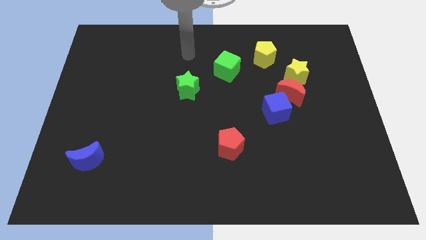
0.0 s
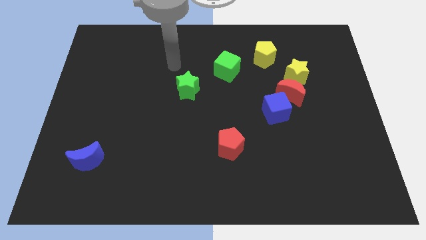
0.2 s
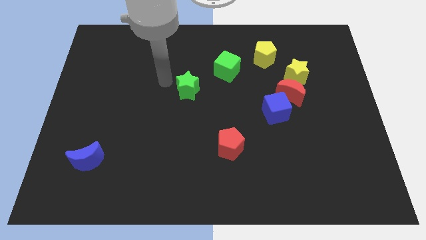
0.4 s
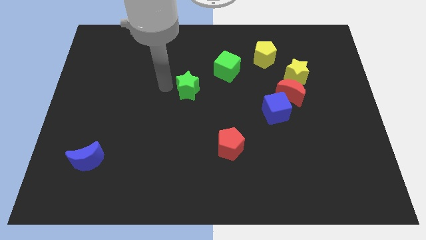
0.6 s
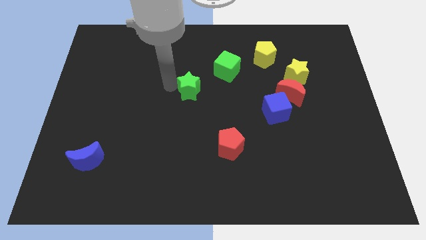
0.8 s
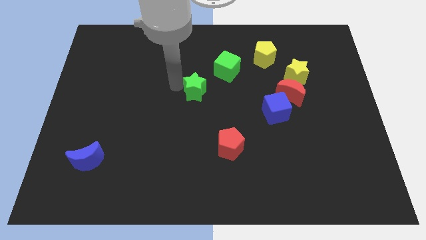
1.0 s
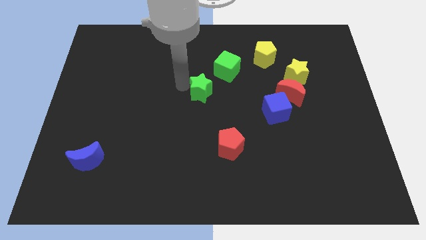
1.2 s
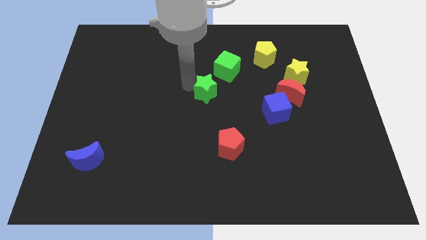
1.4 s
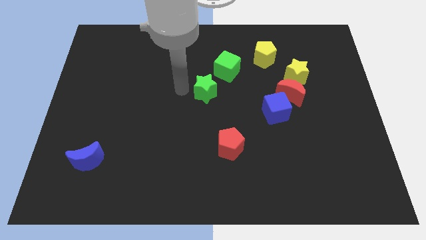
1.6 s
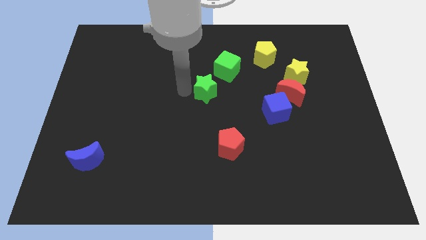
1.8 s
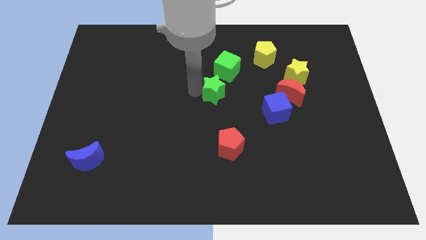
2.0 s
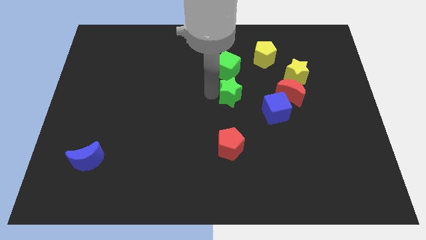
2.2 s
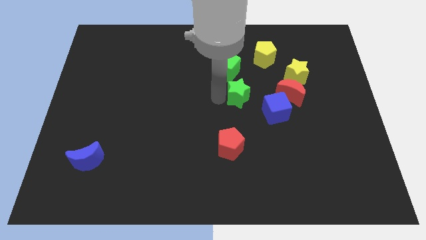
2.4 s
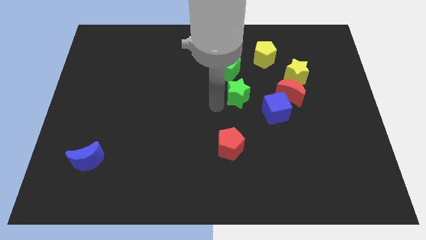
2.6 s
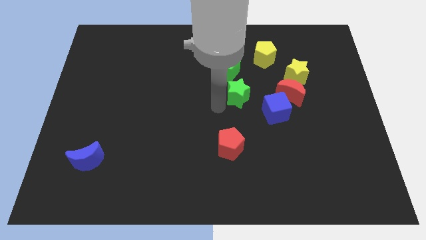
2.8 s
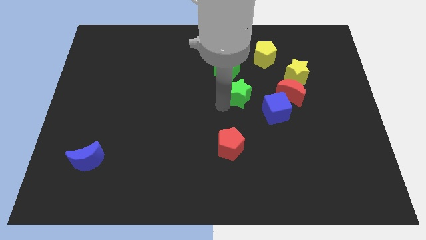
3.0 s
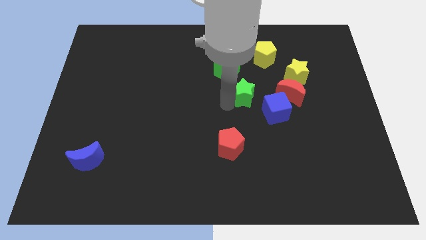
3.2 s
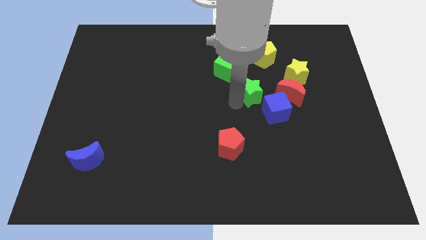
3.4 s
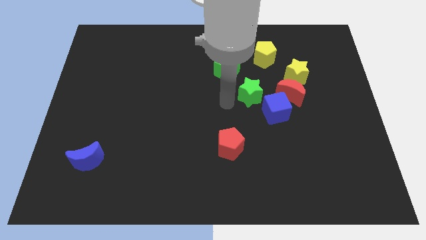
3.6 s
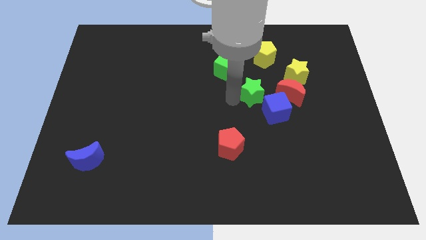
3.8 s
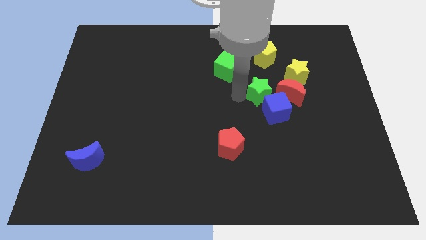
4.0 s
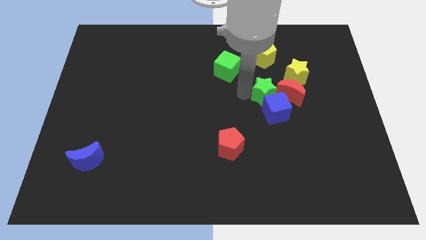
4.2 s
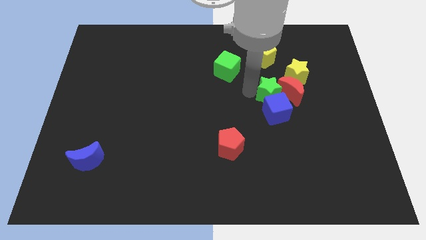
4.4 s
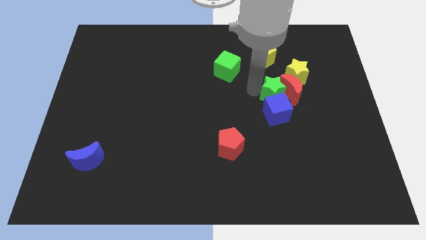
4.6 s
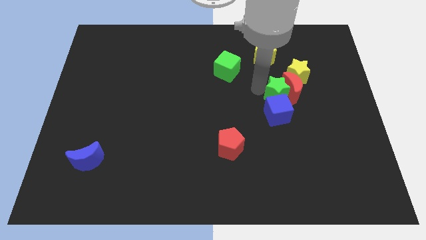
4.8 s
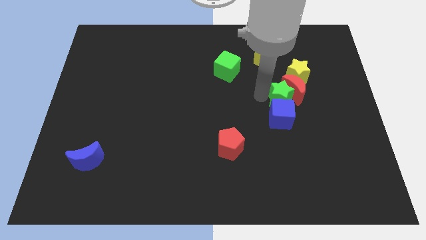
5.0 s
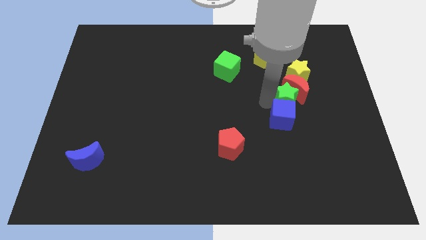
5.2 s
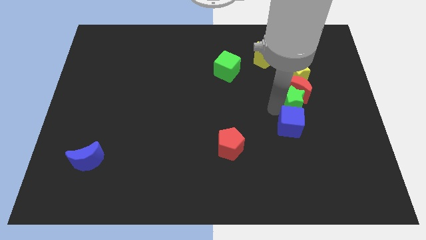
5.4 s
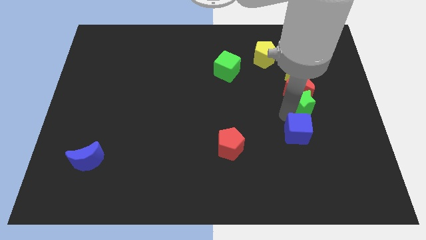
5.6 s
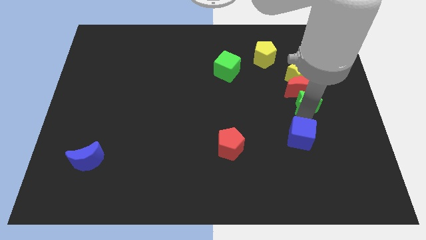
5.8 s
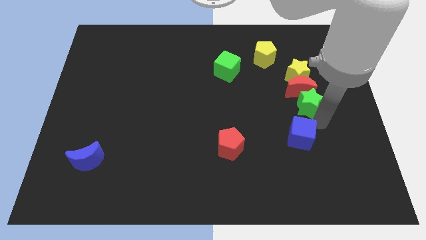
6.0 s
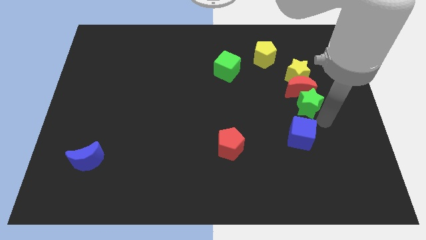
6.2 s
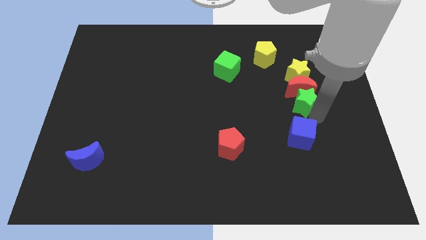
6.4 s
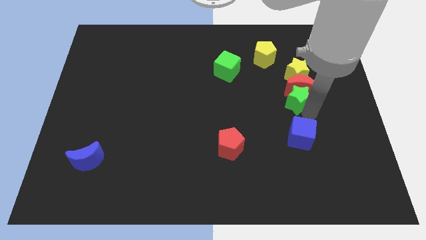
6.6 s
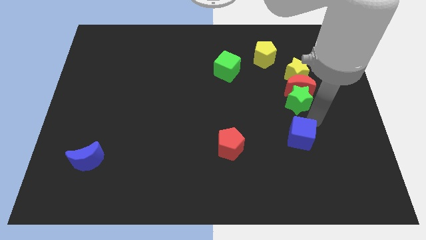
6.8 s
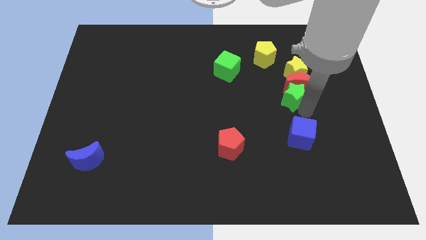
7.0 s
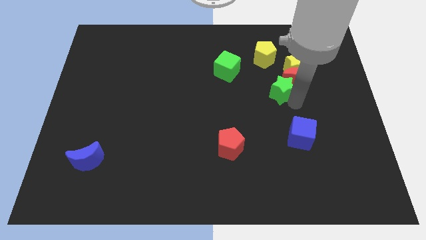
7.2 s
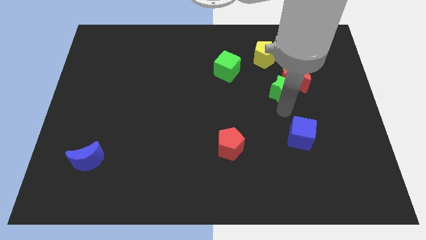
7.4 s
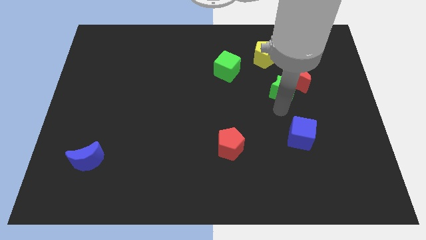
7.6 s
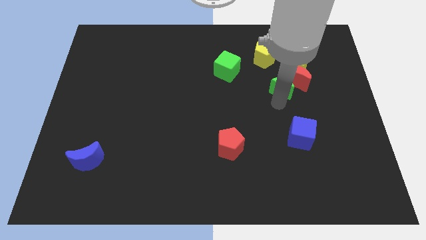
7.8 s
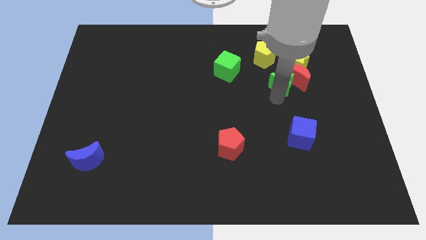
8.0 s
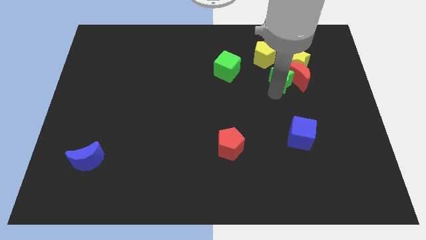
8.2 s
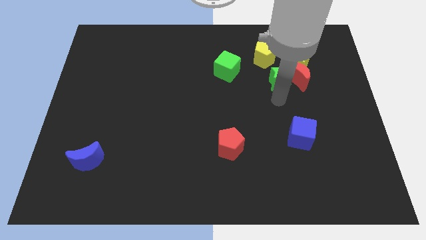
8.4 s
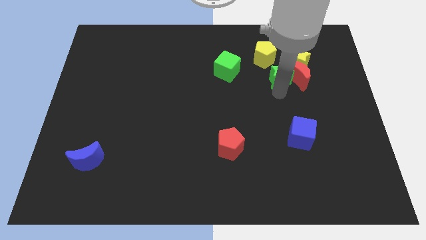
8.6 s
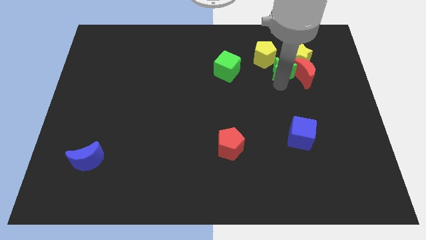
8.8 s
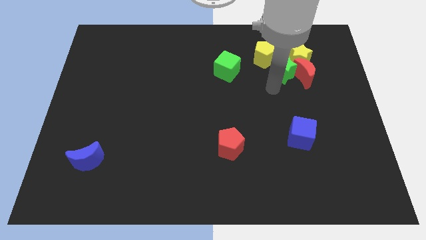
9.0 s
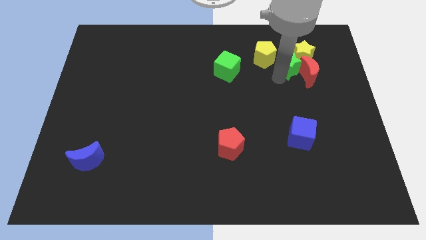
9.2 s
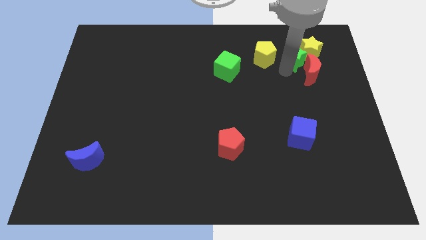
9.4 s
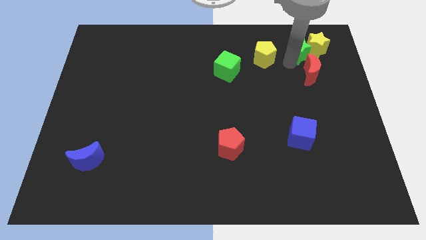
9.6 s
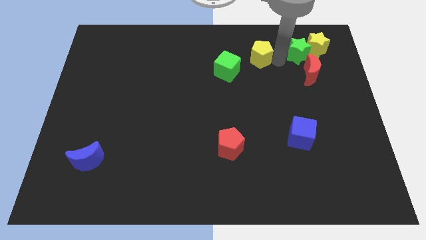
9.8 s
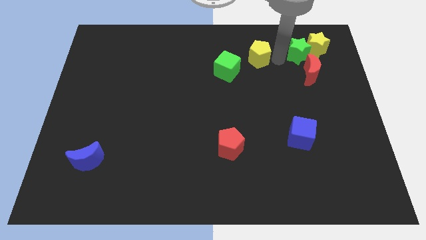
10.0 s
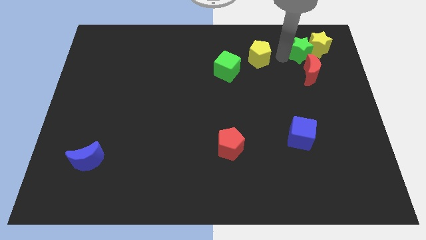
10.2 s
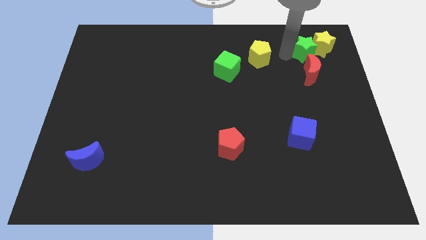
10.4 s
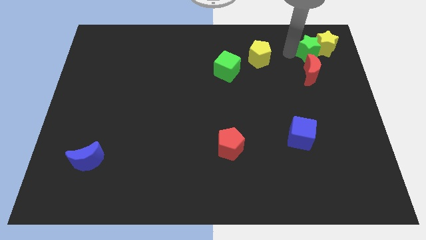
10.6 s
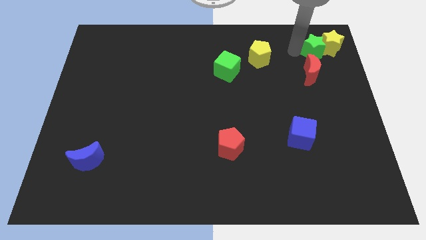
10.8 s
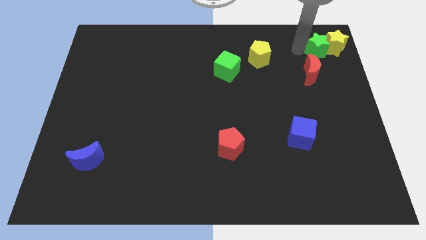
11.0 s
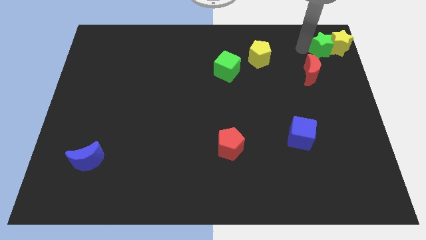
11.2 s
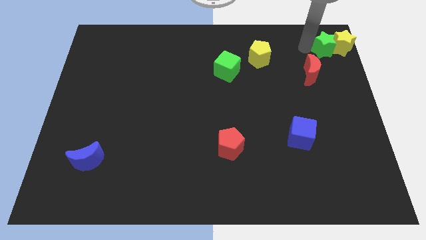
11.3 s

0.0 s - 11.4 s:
move the green star to the top right corner

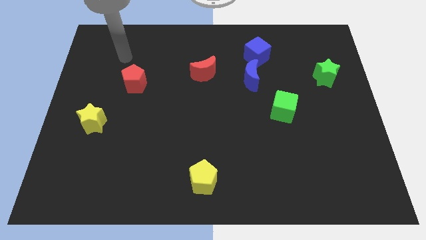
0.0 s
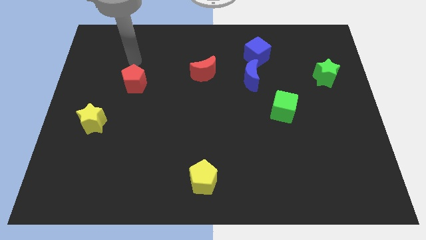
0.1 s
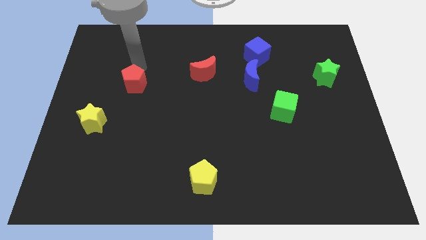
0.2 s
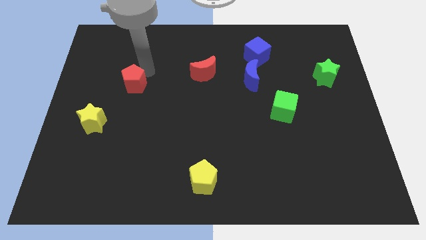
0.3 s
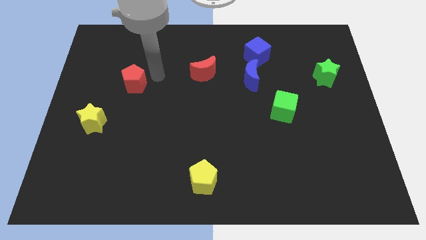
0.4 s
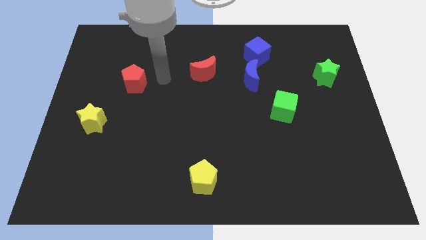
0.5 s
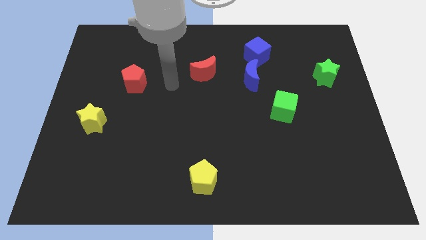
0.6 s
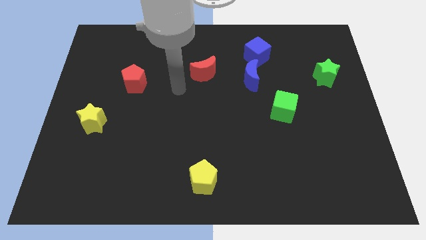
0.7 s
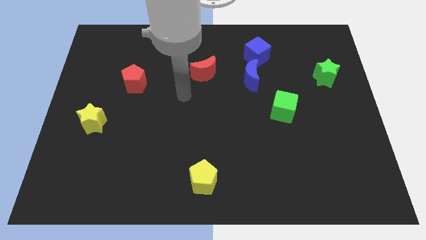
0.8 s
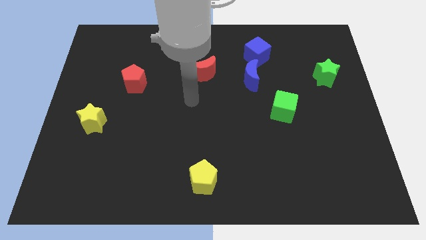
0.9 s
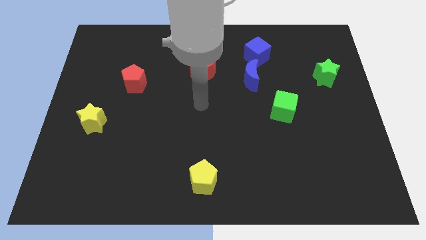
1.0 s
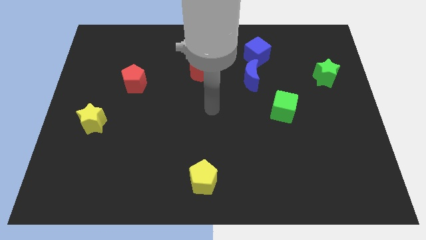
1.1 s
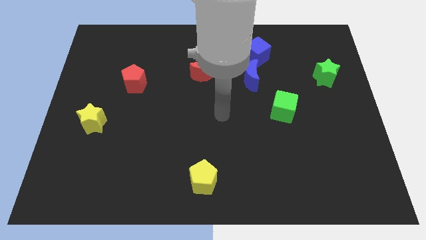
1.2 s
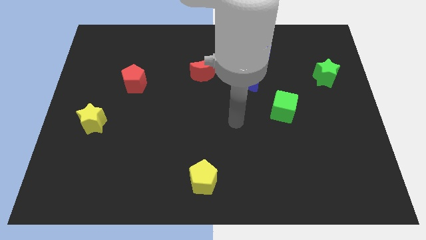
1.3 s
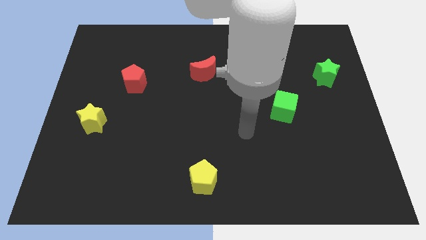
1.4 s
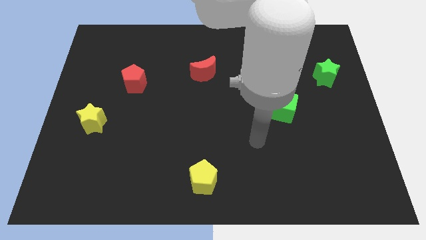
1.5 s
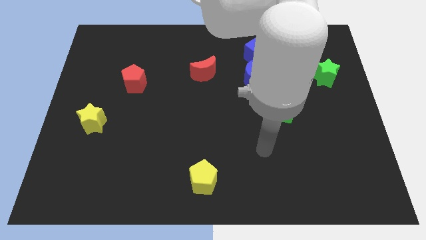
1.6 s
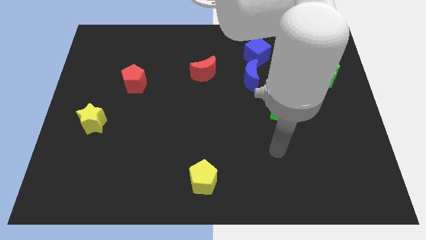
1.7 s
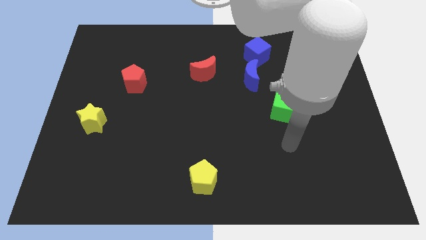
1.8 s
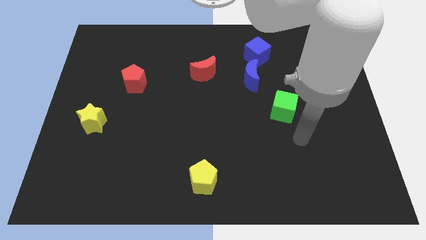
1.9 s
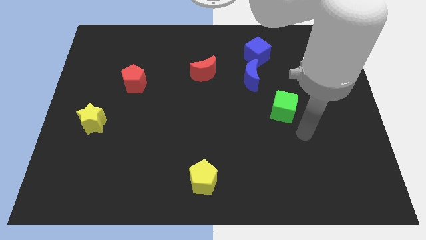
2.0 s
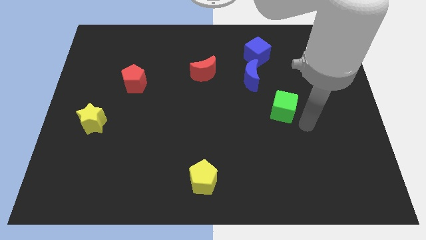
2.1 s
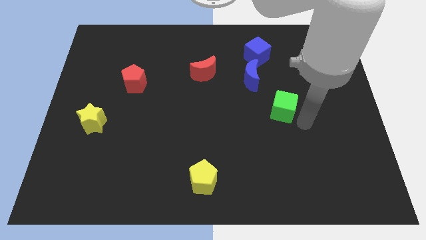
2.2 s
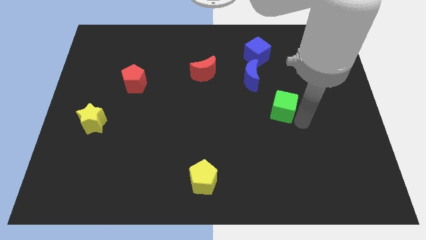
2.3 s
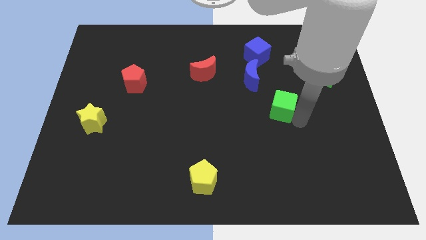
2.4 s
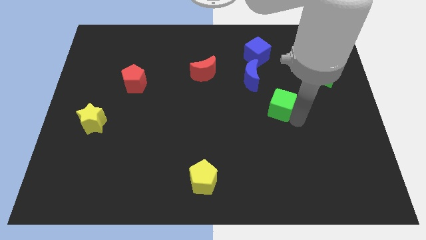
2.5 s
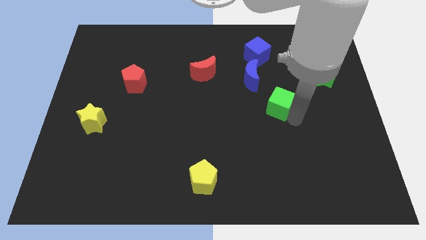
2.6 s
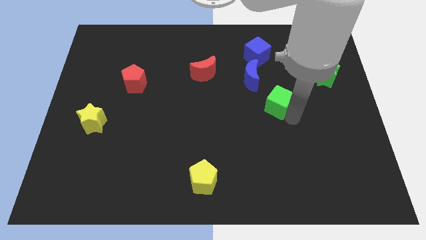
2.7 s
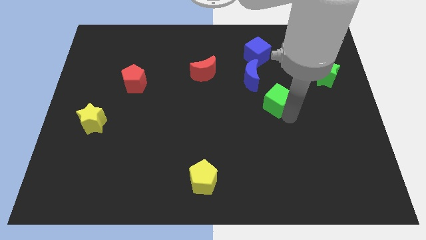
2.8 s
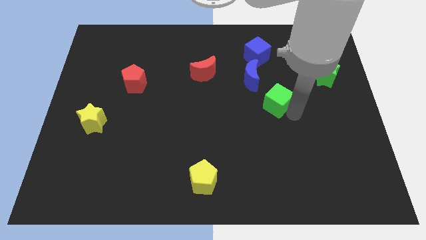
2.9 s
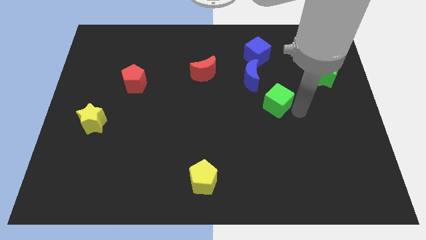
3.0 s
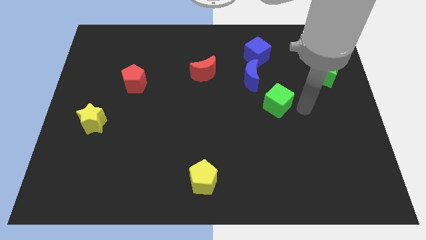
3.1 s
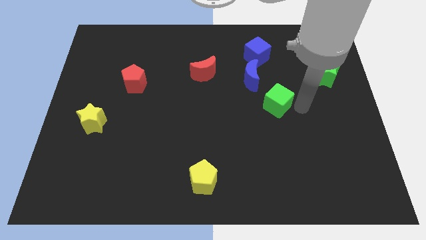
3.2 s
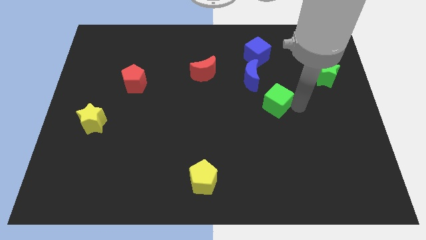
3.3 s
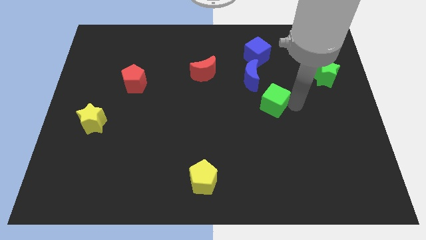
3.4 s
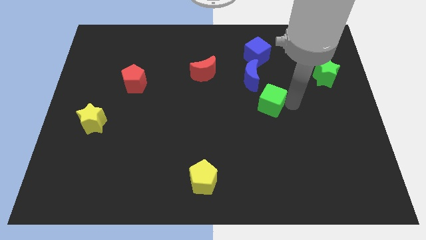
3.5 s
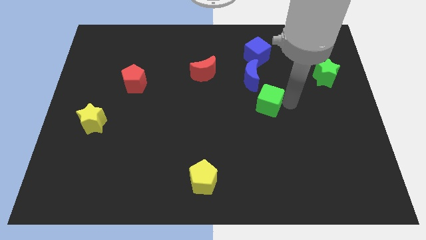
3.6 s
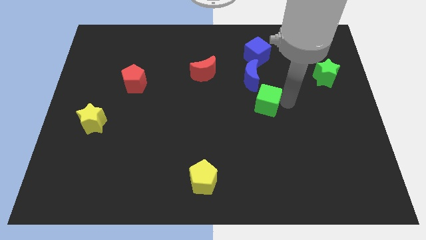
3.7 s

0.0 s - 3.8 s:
slide the green cube to the middle
